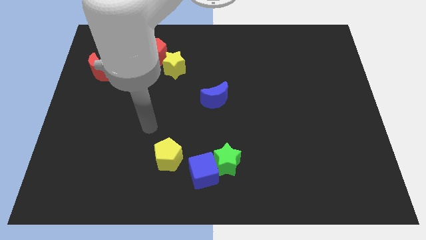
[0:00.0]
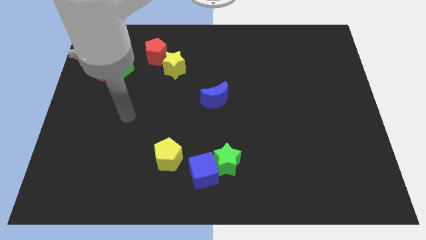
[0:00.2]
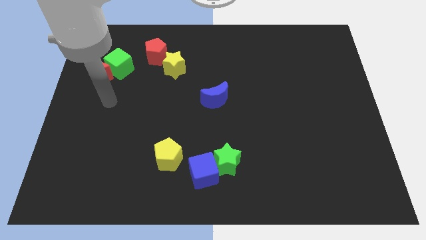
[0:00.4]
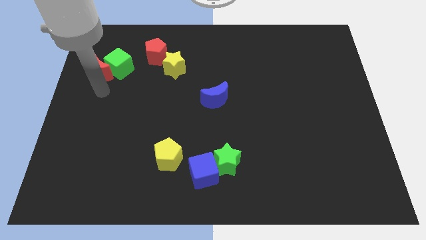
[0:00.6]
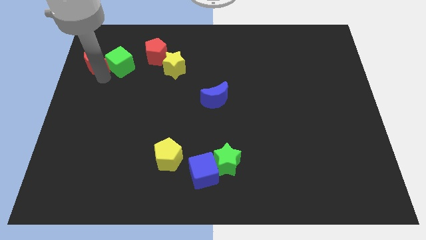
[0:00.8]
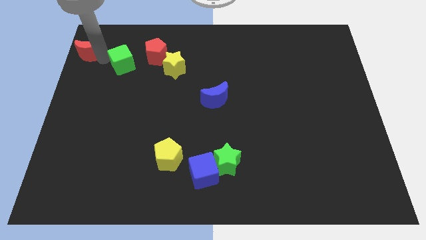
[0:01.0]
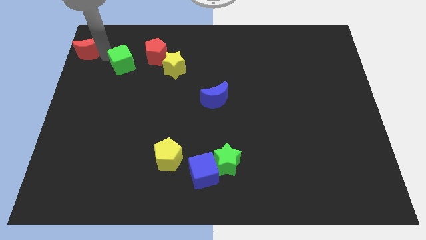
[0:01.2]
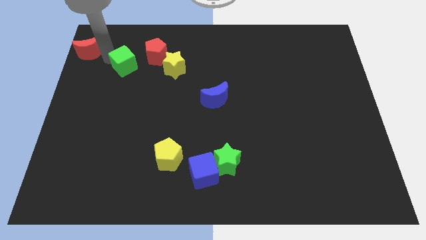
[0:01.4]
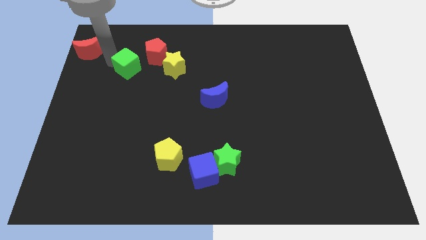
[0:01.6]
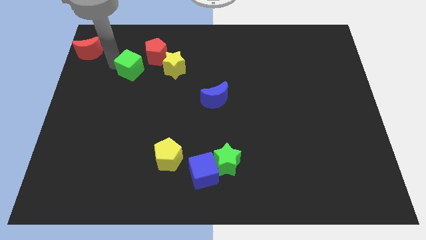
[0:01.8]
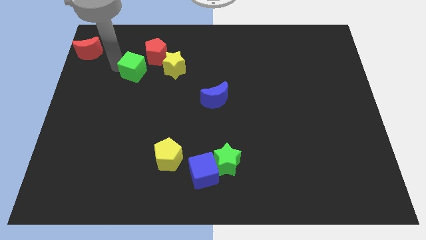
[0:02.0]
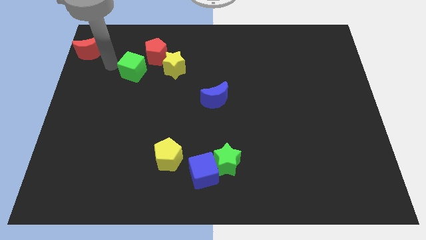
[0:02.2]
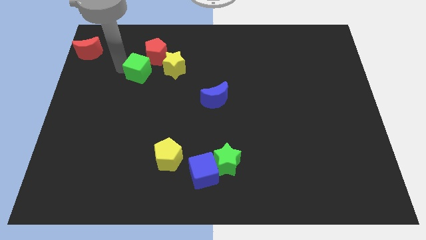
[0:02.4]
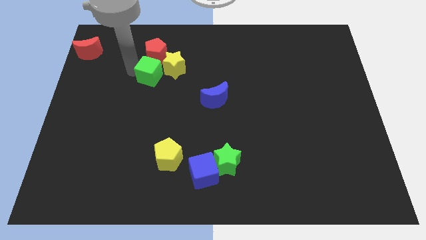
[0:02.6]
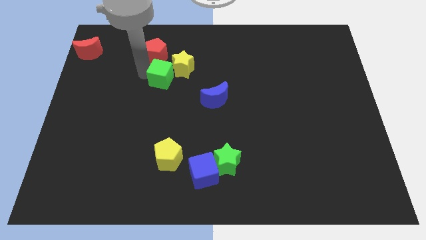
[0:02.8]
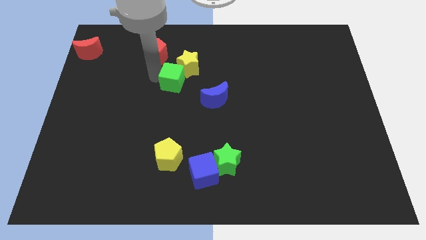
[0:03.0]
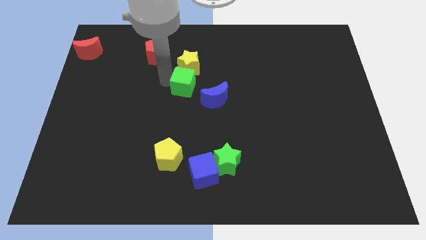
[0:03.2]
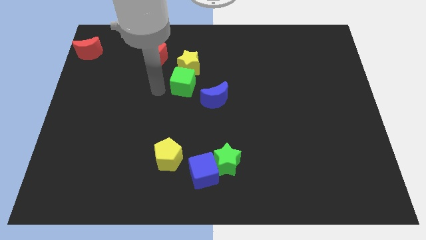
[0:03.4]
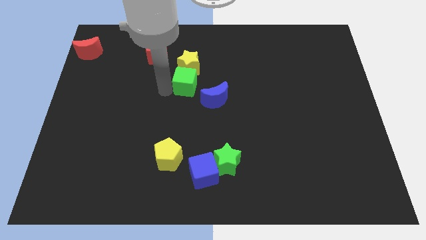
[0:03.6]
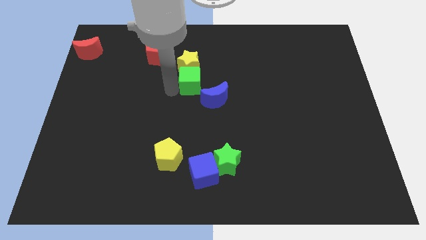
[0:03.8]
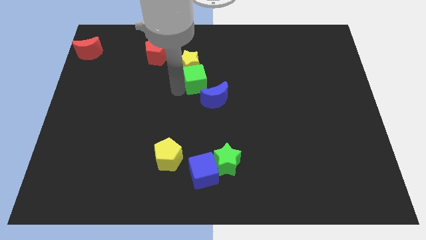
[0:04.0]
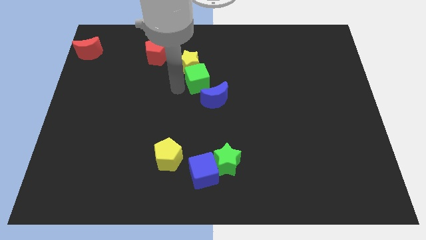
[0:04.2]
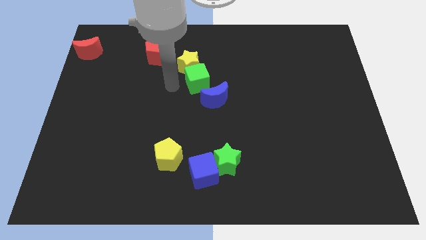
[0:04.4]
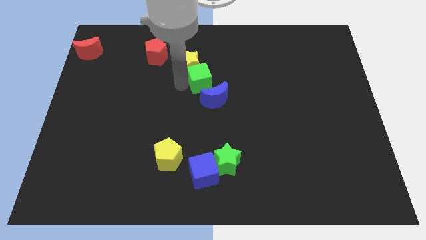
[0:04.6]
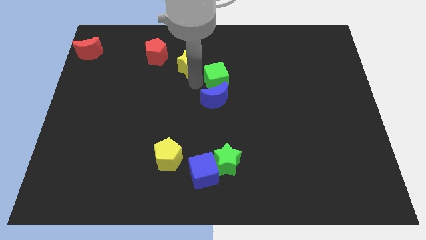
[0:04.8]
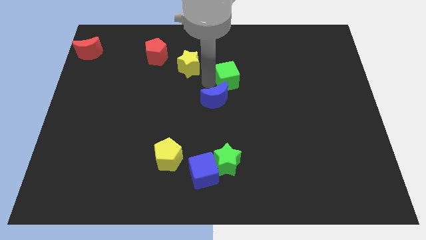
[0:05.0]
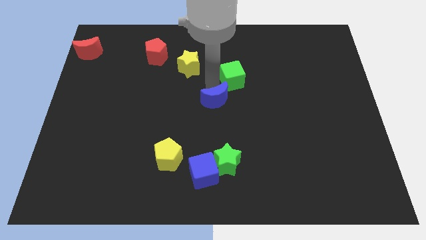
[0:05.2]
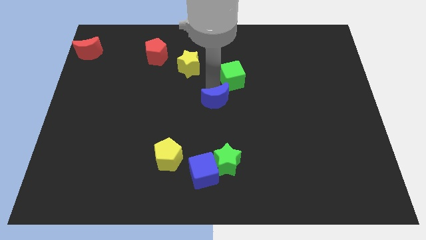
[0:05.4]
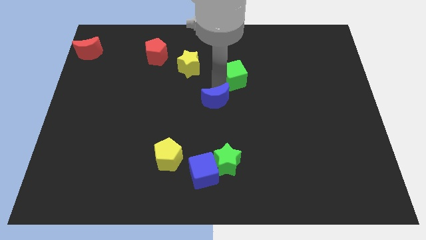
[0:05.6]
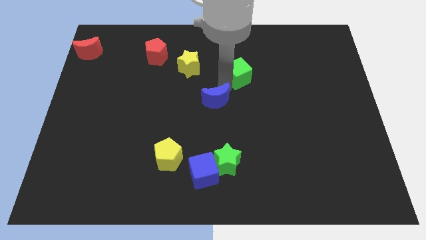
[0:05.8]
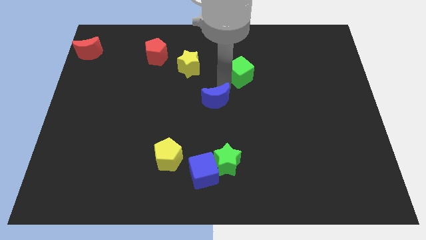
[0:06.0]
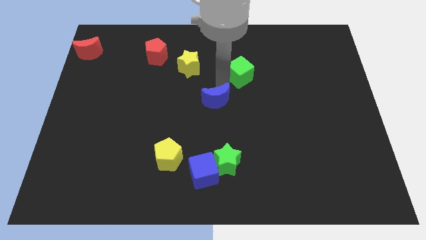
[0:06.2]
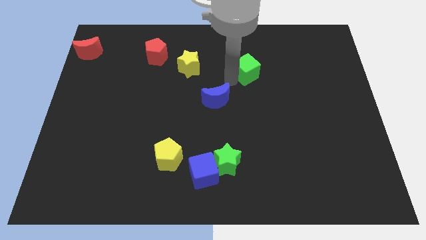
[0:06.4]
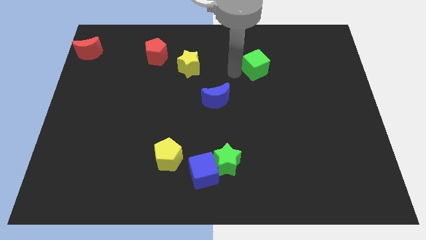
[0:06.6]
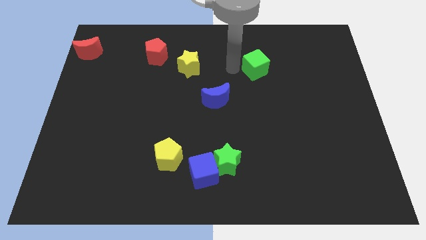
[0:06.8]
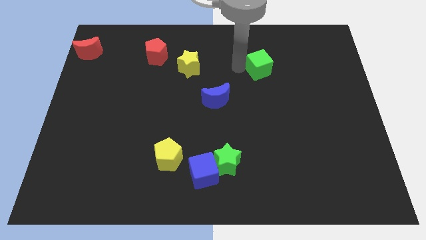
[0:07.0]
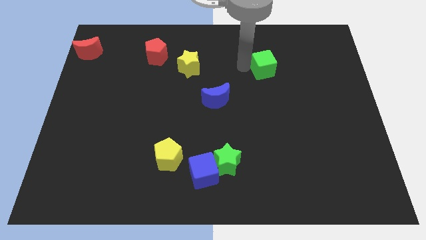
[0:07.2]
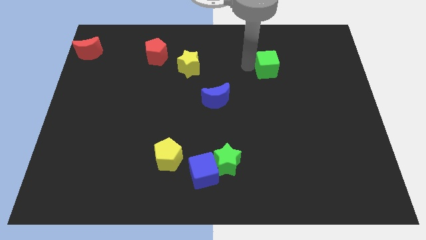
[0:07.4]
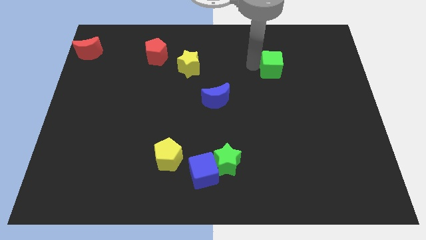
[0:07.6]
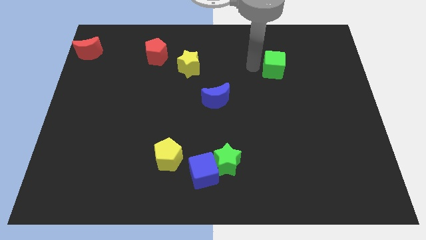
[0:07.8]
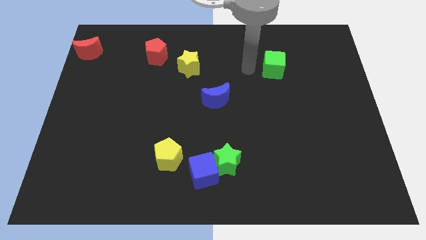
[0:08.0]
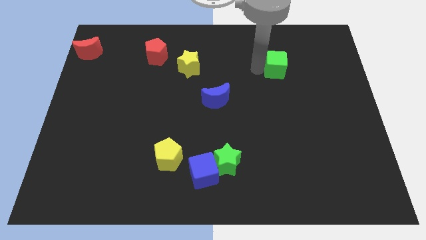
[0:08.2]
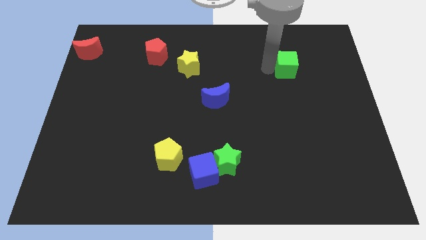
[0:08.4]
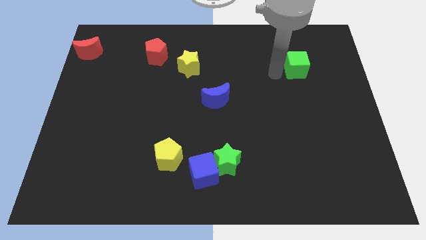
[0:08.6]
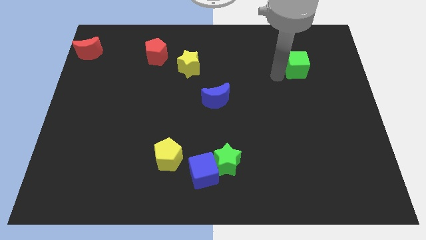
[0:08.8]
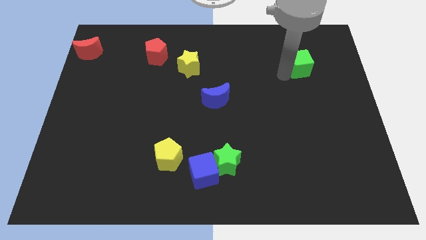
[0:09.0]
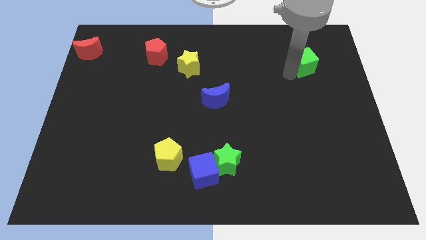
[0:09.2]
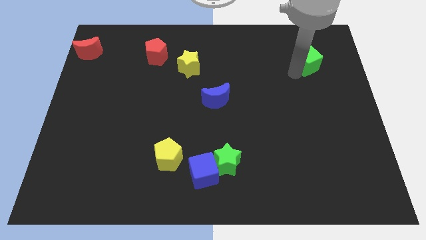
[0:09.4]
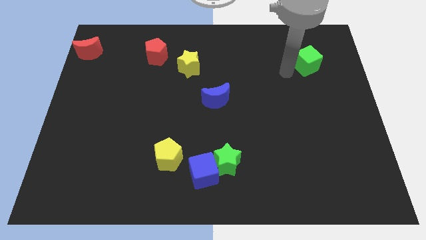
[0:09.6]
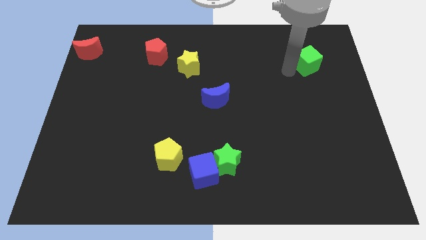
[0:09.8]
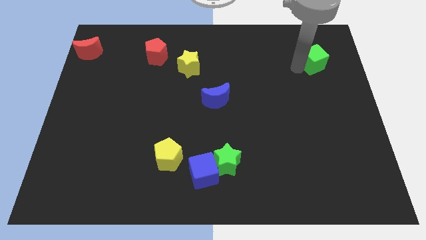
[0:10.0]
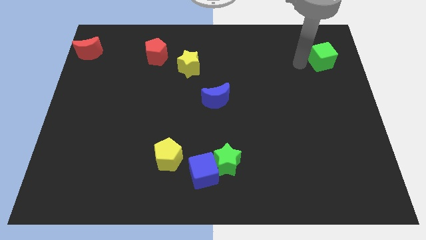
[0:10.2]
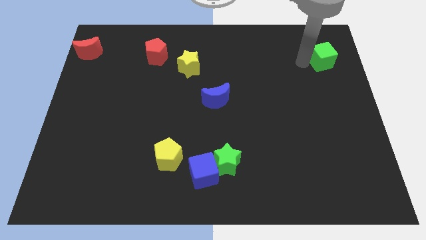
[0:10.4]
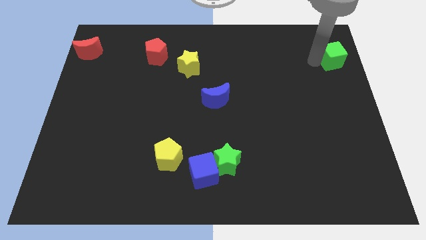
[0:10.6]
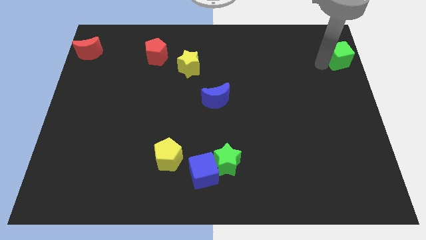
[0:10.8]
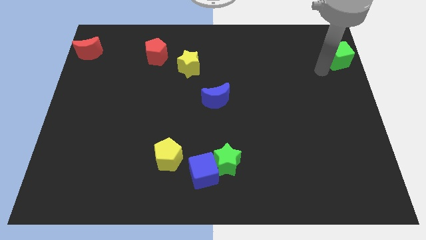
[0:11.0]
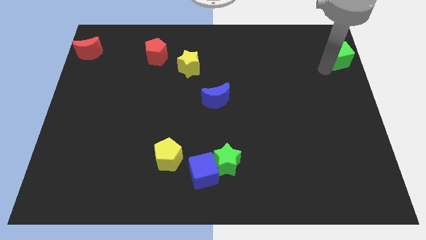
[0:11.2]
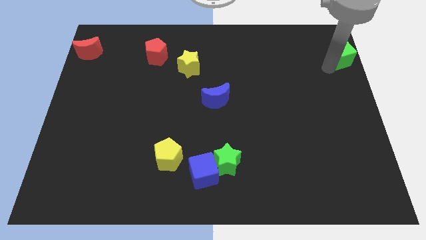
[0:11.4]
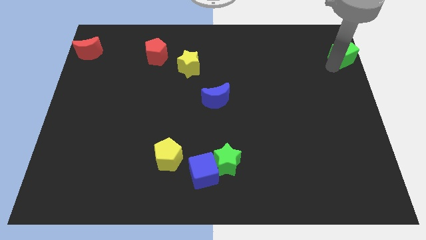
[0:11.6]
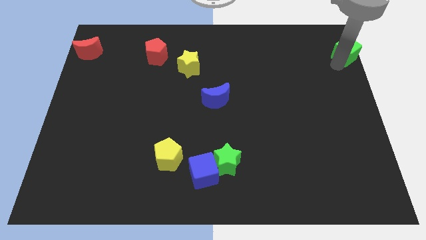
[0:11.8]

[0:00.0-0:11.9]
push the green cube to the upper right corner
